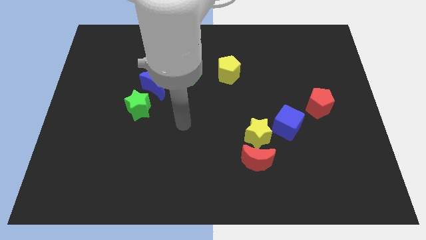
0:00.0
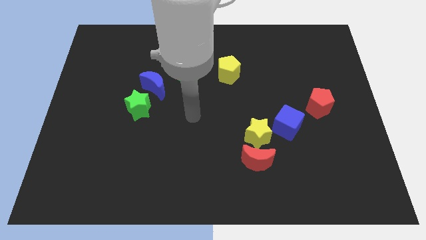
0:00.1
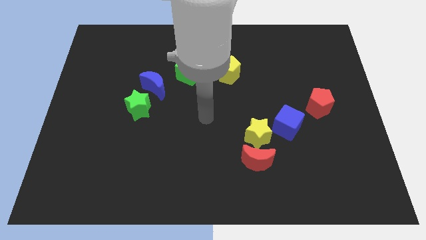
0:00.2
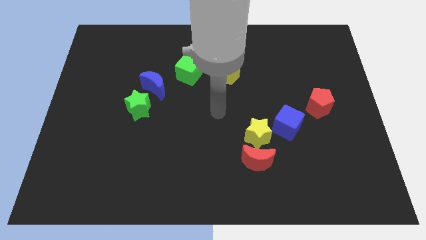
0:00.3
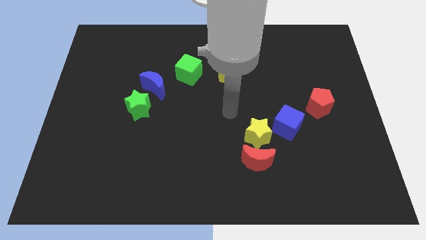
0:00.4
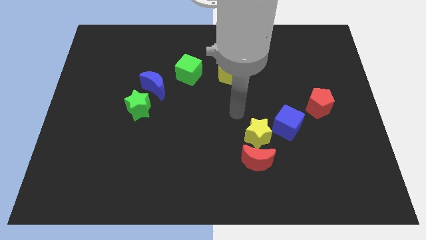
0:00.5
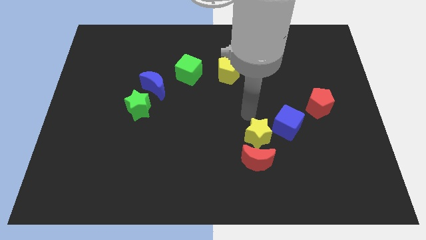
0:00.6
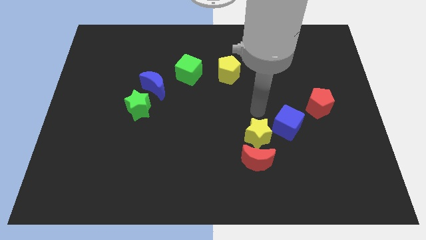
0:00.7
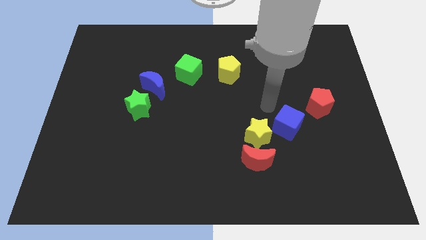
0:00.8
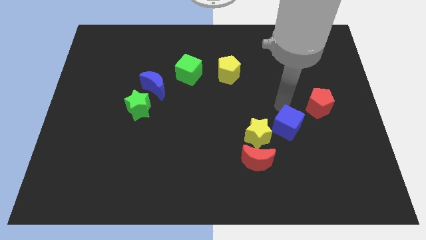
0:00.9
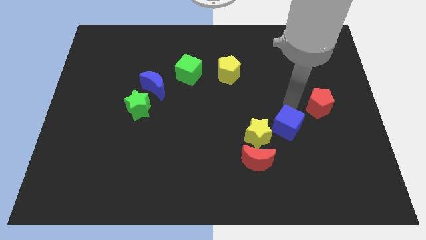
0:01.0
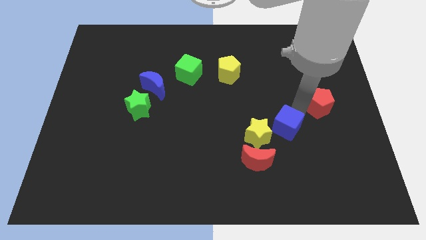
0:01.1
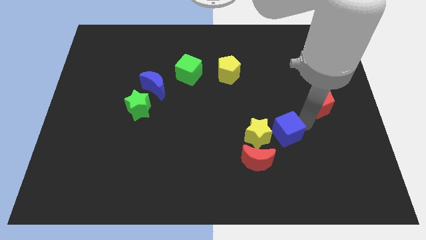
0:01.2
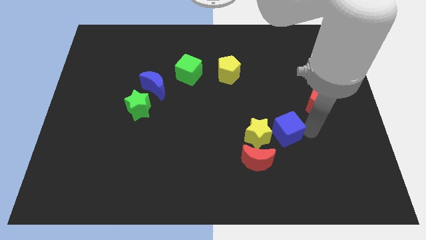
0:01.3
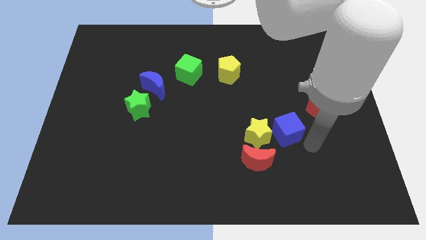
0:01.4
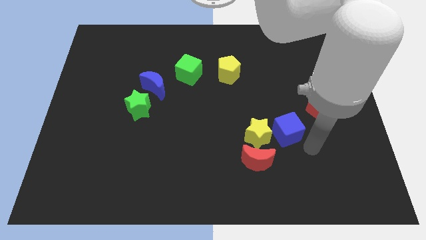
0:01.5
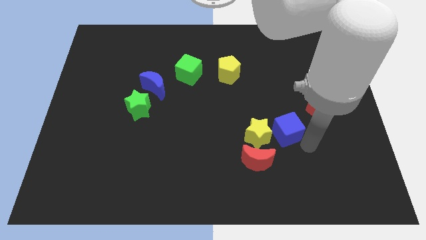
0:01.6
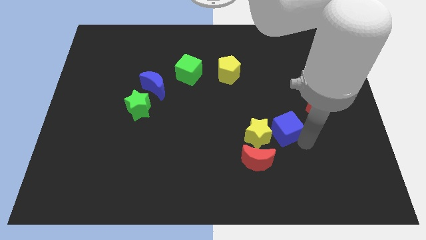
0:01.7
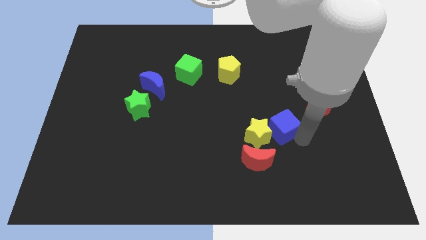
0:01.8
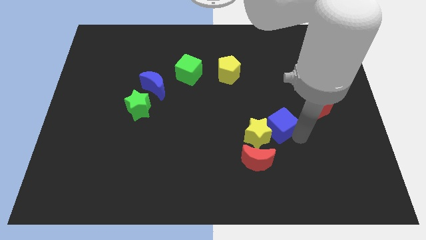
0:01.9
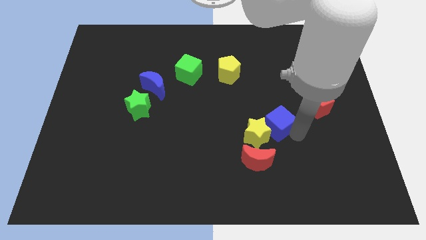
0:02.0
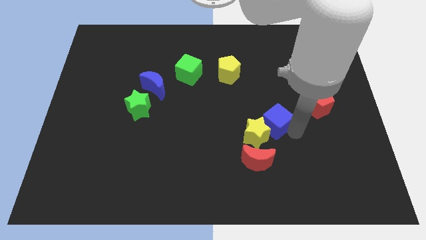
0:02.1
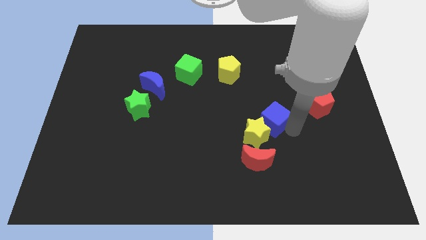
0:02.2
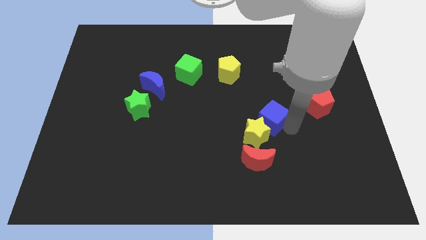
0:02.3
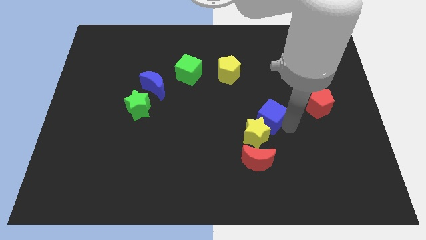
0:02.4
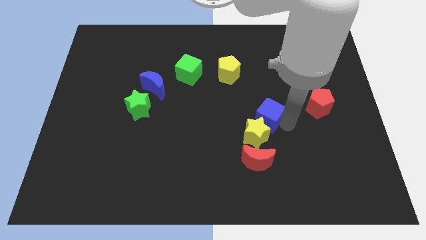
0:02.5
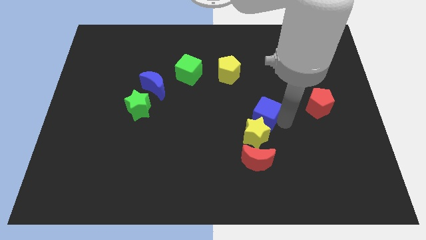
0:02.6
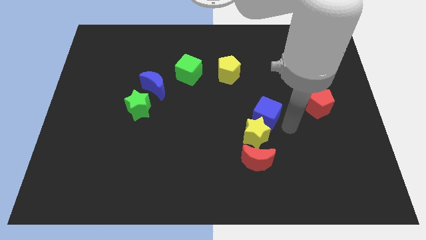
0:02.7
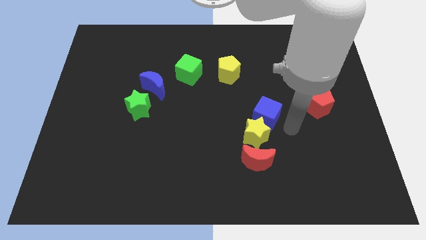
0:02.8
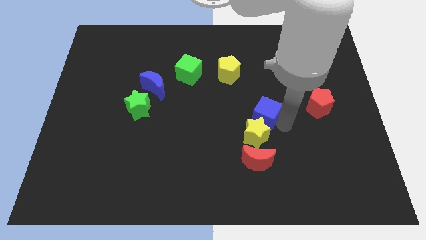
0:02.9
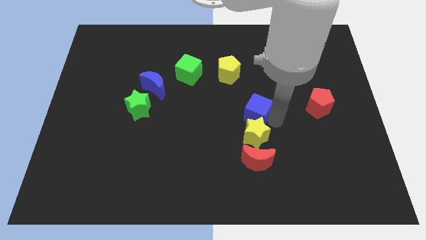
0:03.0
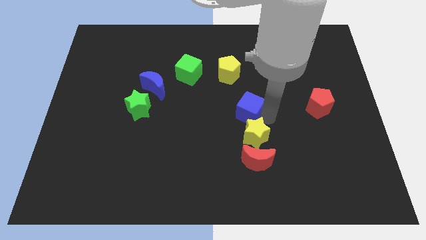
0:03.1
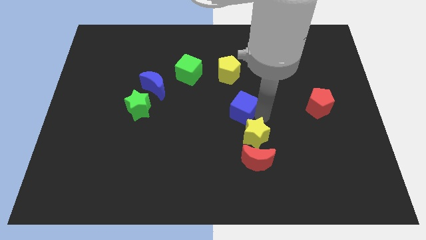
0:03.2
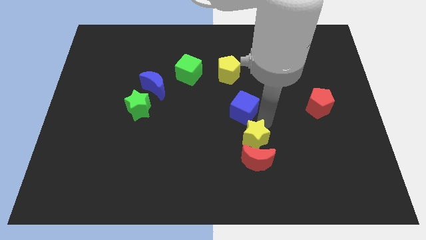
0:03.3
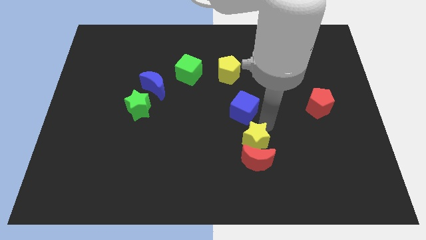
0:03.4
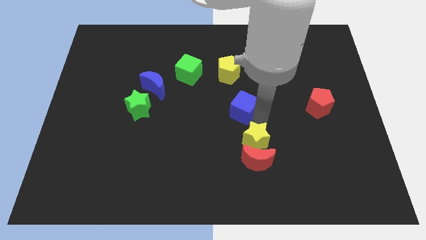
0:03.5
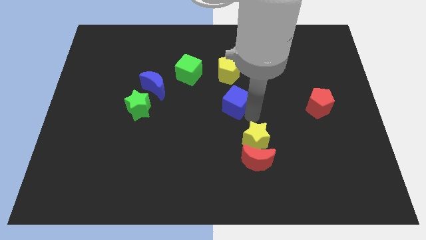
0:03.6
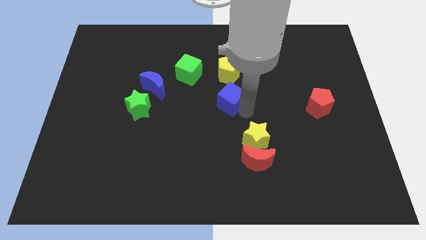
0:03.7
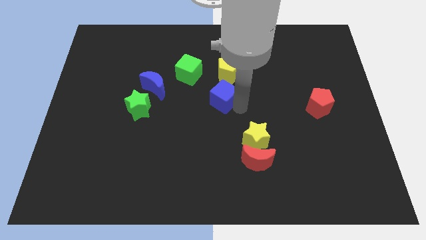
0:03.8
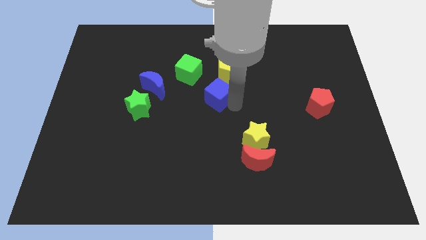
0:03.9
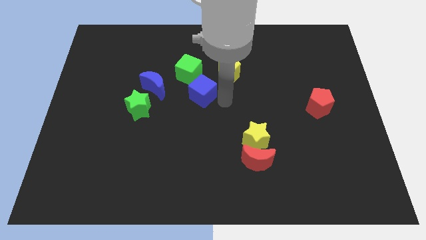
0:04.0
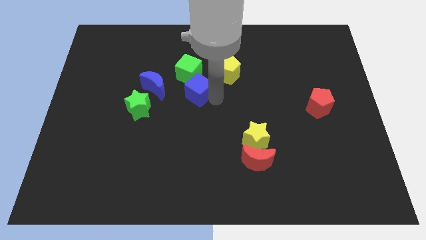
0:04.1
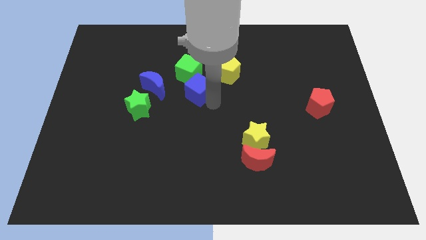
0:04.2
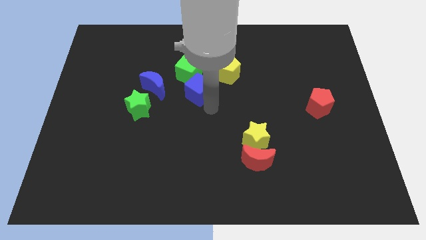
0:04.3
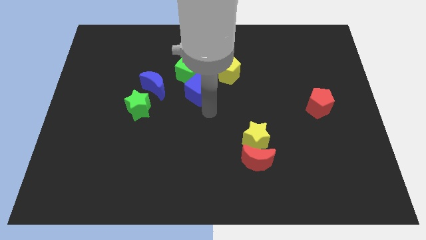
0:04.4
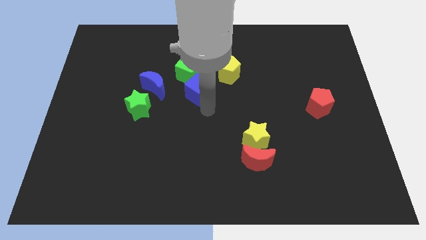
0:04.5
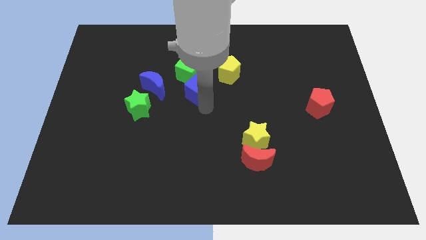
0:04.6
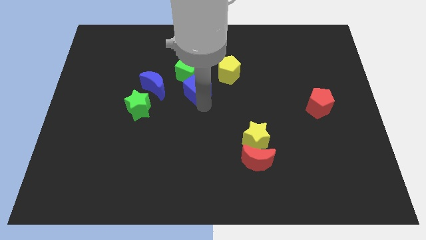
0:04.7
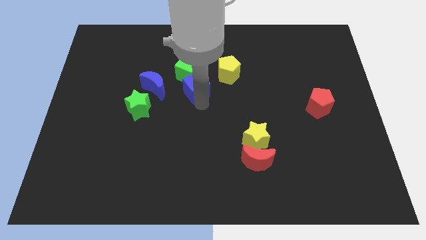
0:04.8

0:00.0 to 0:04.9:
slide the blue cube towards the green cube

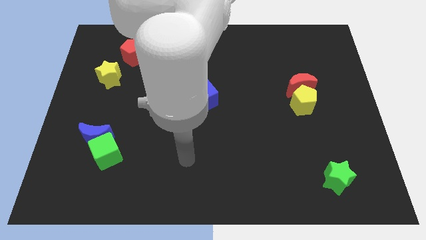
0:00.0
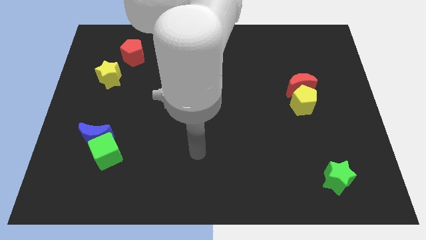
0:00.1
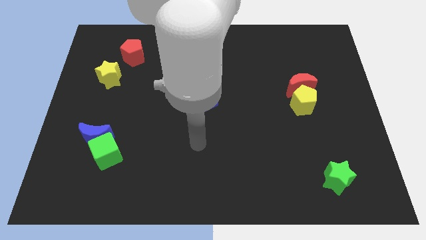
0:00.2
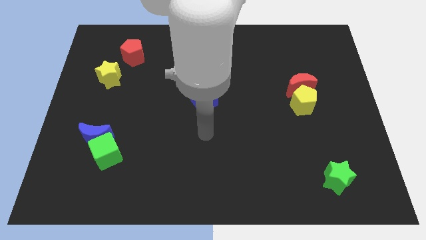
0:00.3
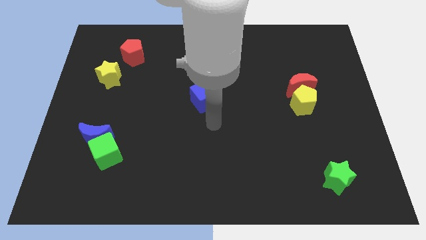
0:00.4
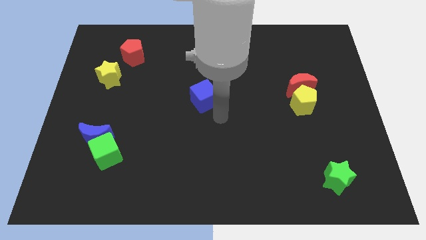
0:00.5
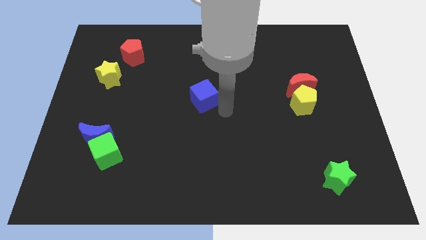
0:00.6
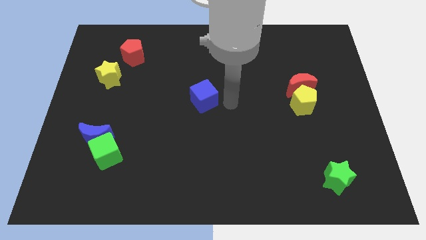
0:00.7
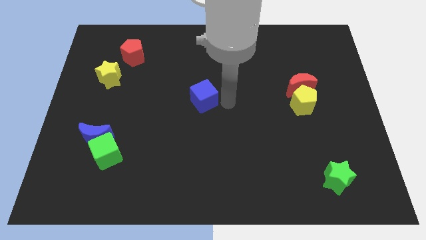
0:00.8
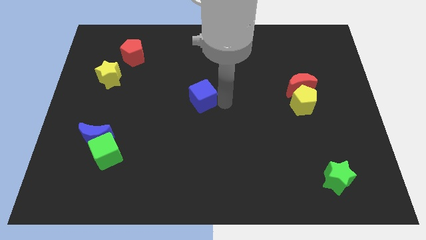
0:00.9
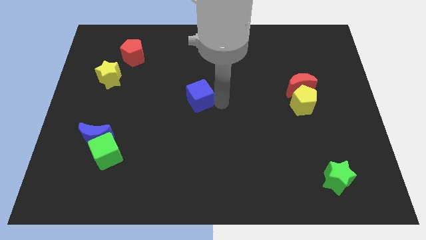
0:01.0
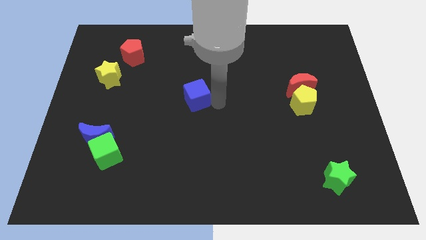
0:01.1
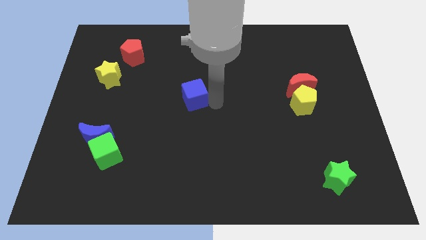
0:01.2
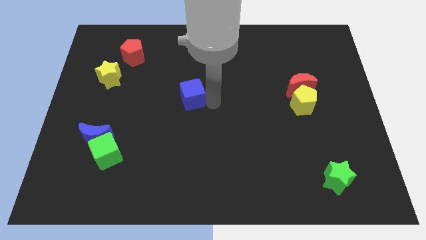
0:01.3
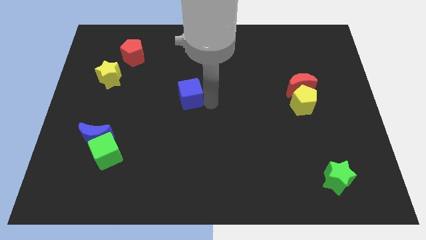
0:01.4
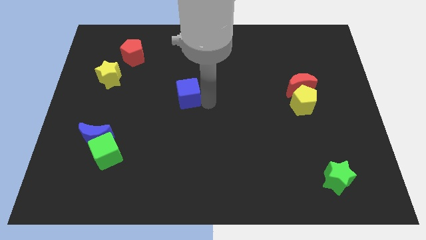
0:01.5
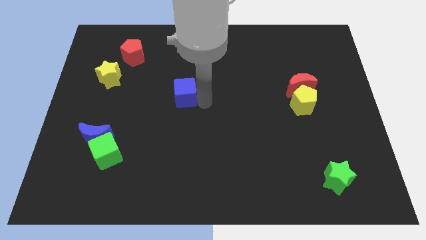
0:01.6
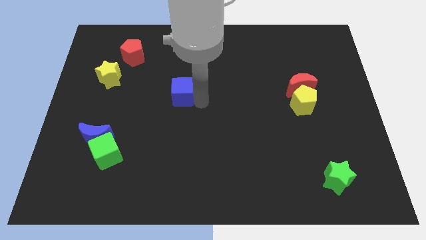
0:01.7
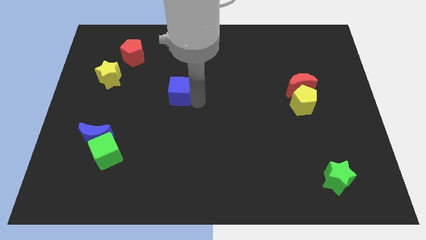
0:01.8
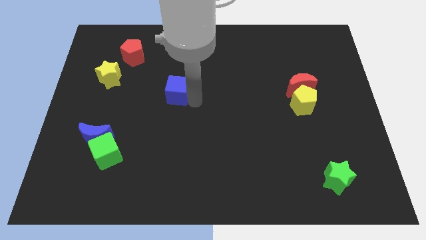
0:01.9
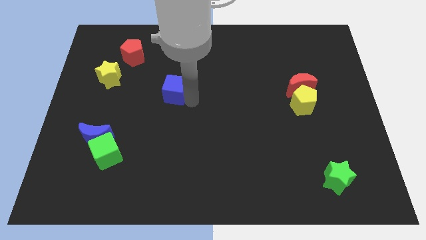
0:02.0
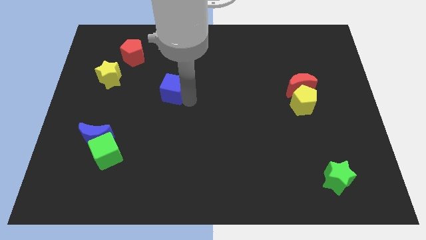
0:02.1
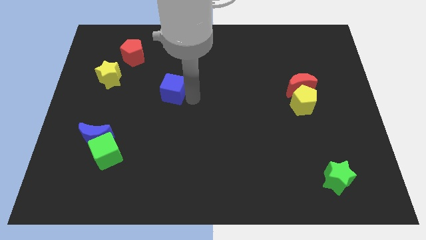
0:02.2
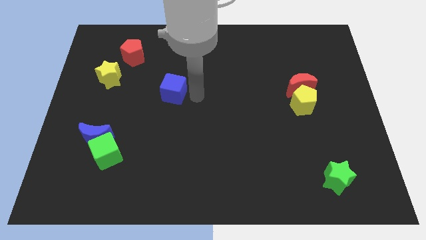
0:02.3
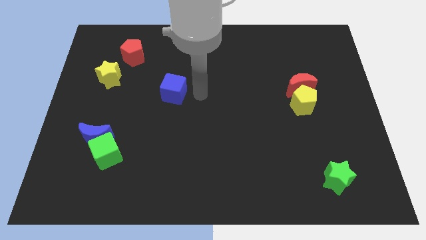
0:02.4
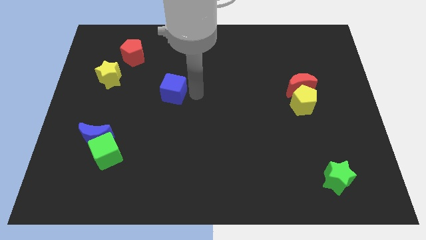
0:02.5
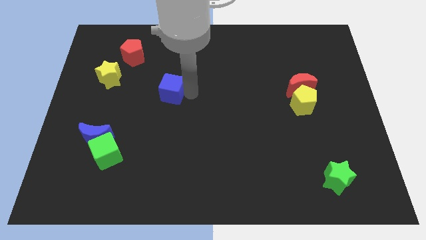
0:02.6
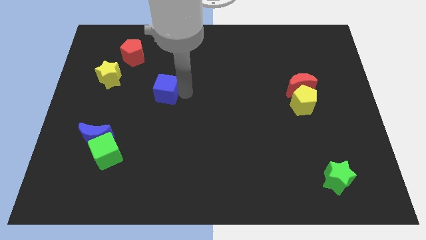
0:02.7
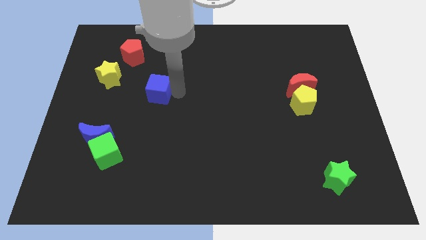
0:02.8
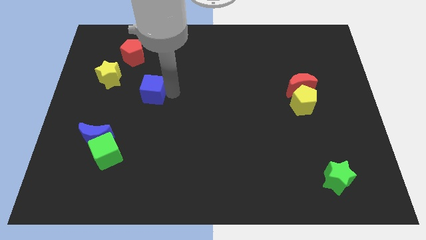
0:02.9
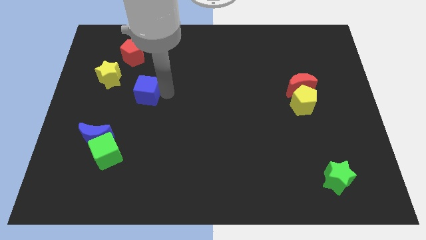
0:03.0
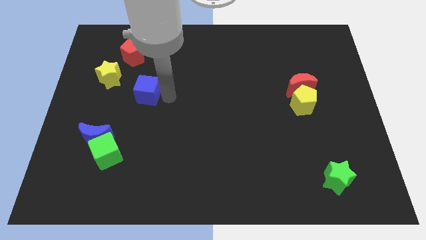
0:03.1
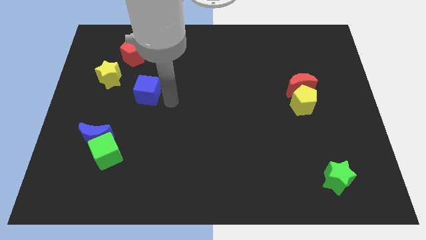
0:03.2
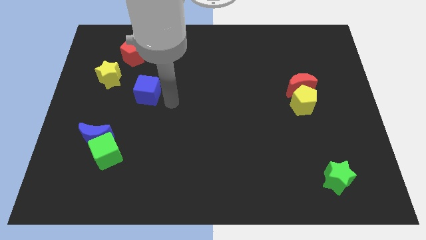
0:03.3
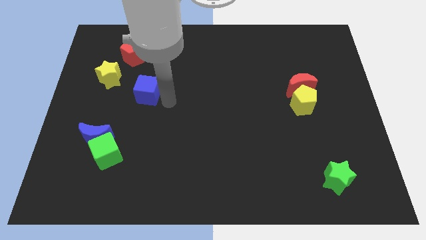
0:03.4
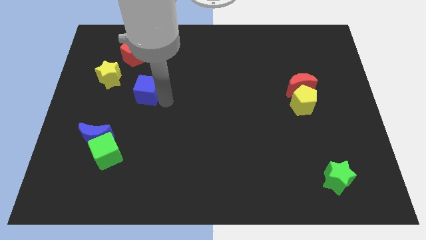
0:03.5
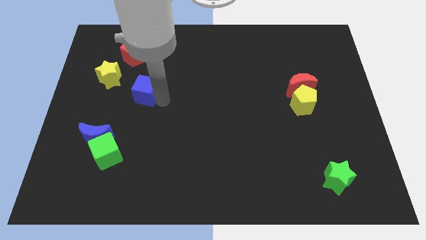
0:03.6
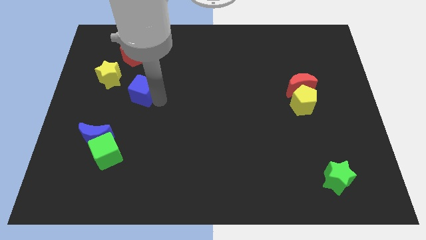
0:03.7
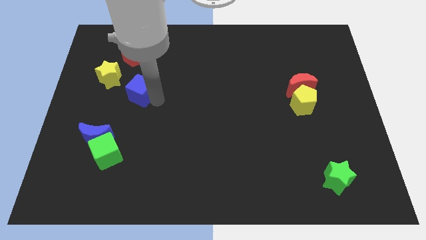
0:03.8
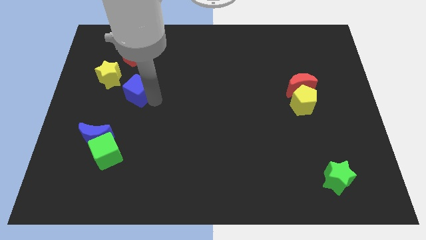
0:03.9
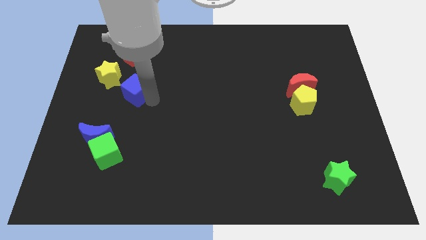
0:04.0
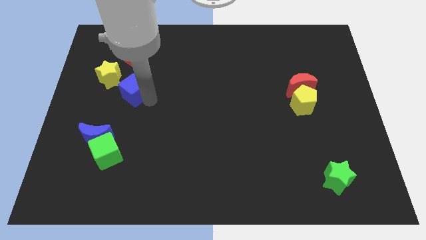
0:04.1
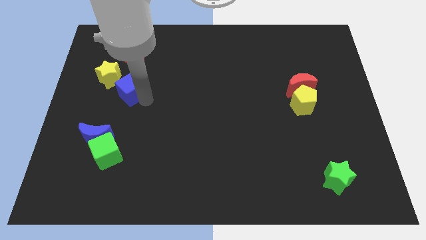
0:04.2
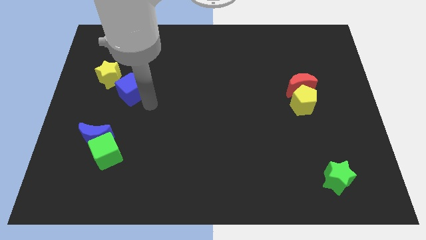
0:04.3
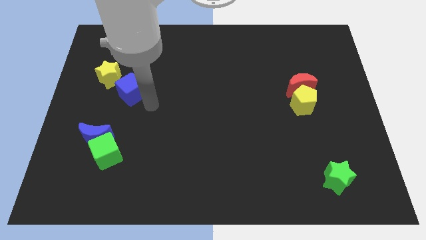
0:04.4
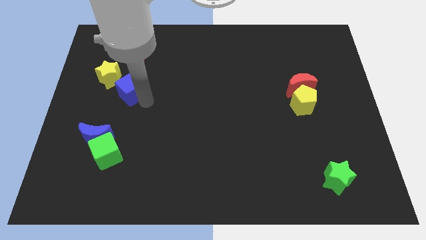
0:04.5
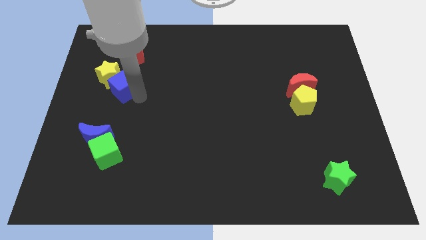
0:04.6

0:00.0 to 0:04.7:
move the blue cube towards the yellow star
